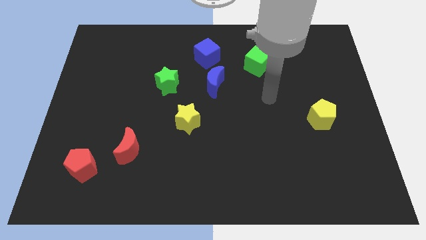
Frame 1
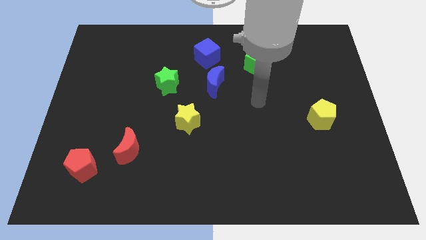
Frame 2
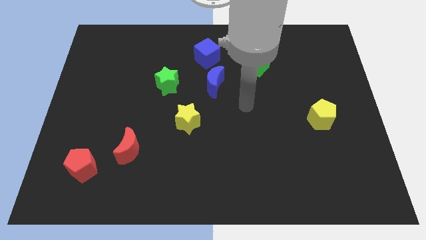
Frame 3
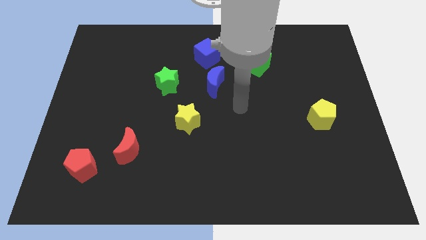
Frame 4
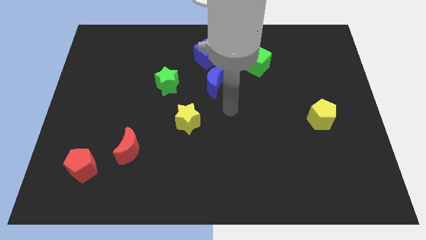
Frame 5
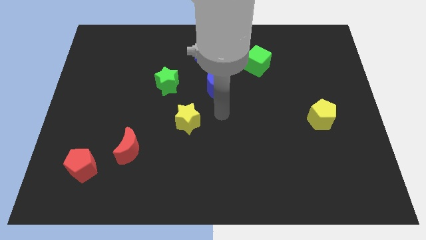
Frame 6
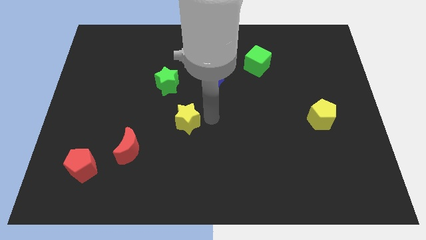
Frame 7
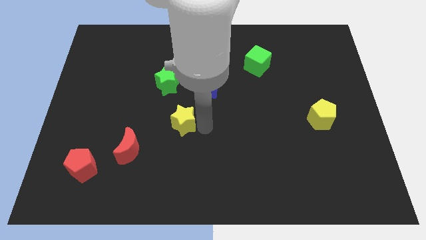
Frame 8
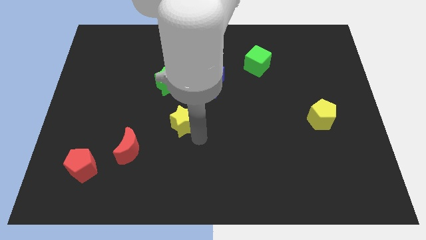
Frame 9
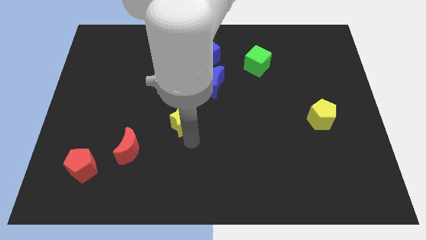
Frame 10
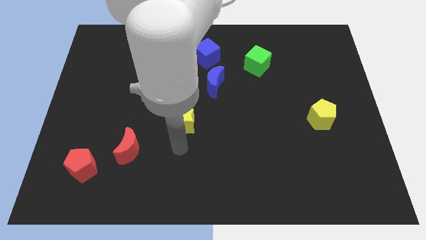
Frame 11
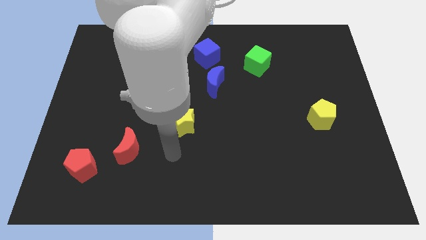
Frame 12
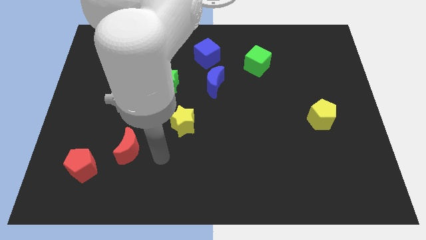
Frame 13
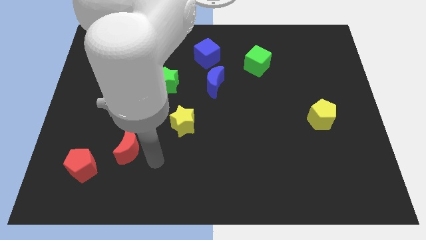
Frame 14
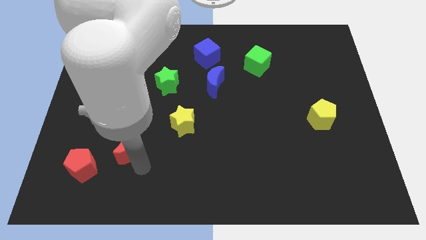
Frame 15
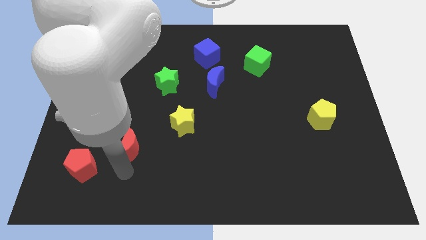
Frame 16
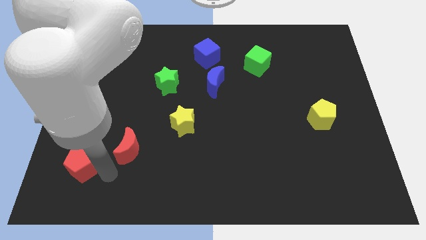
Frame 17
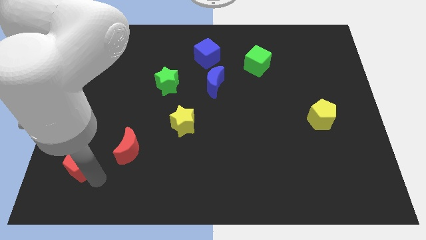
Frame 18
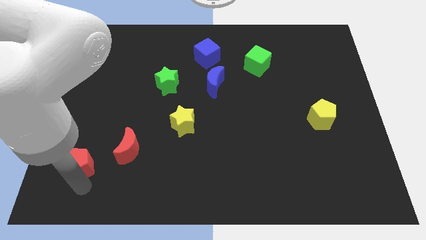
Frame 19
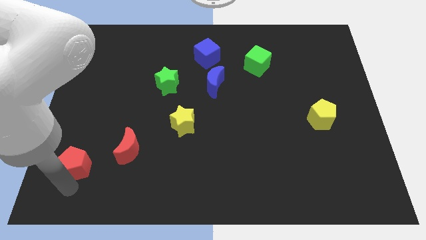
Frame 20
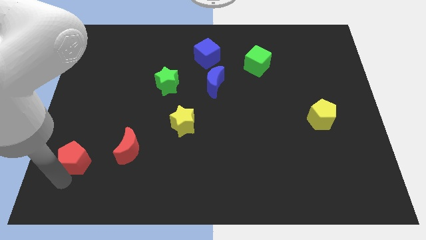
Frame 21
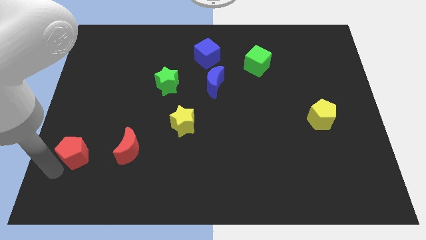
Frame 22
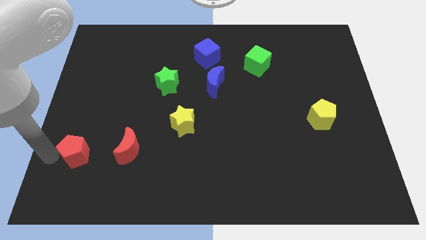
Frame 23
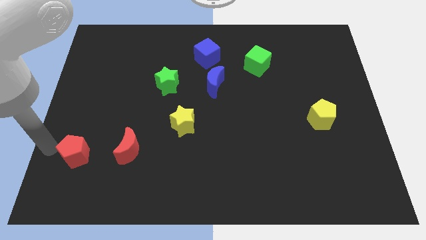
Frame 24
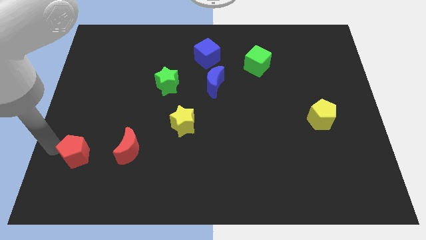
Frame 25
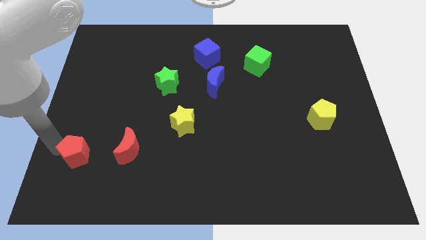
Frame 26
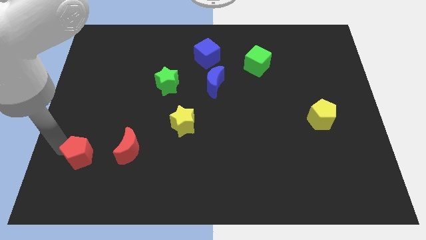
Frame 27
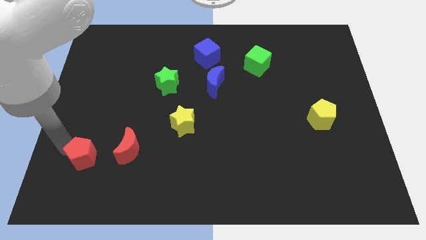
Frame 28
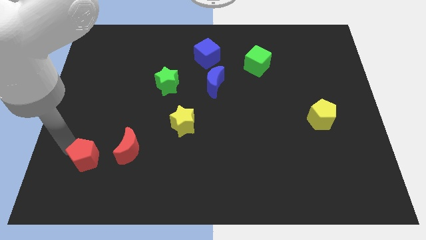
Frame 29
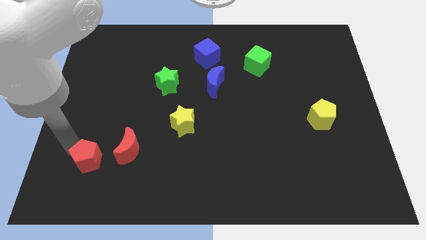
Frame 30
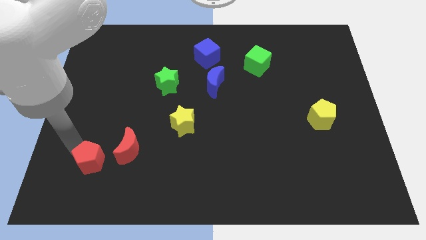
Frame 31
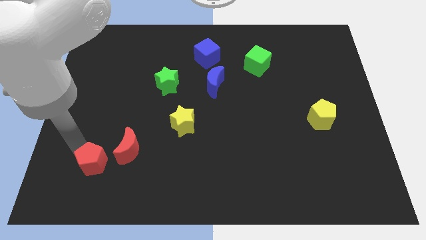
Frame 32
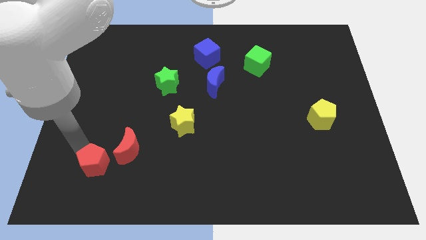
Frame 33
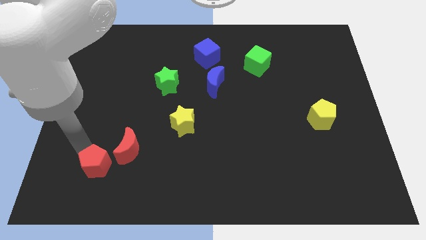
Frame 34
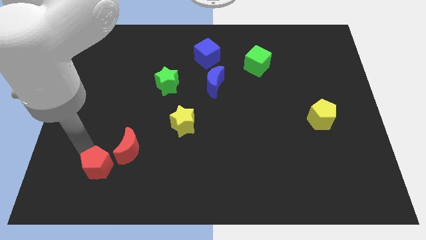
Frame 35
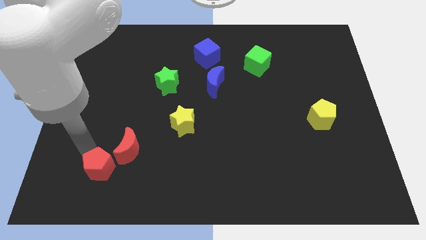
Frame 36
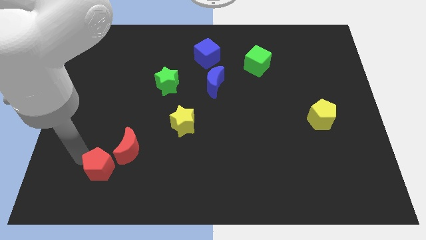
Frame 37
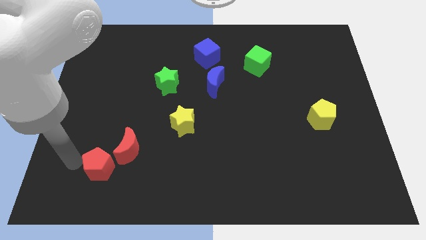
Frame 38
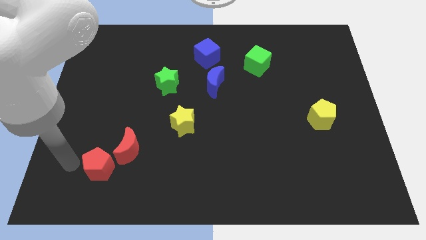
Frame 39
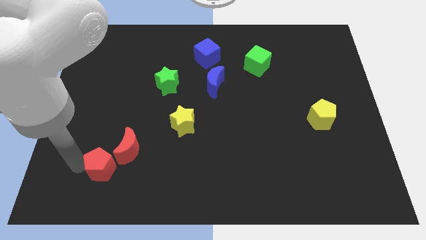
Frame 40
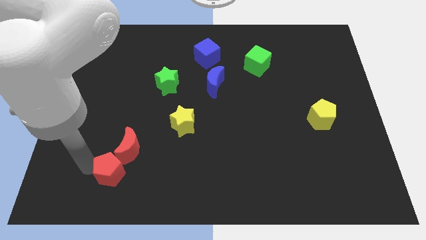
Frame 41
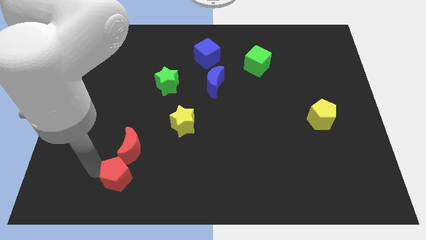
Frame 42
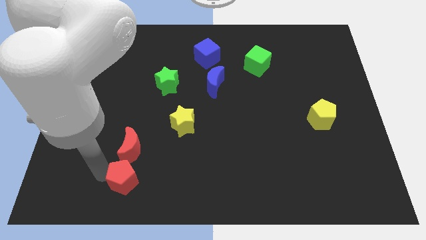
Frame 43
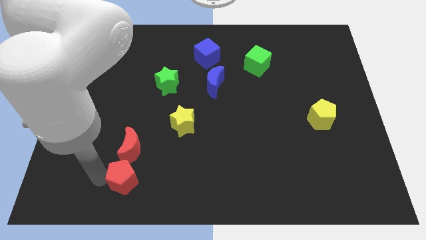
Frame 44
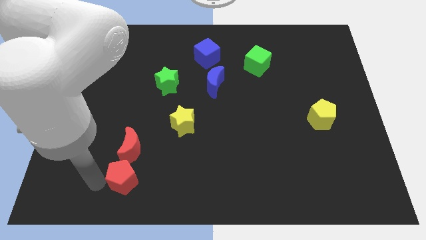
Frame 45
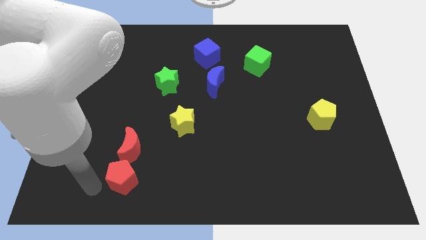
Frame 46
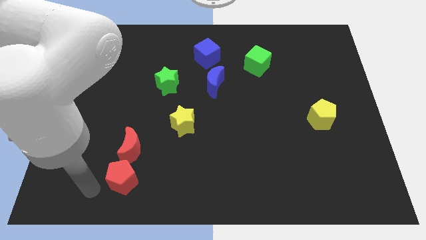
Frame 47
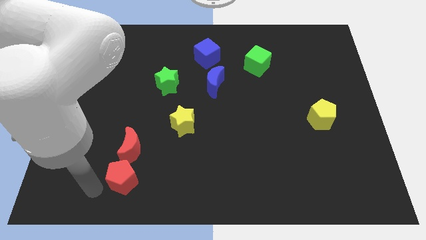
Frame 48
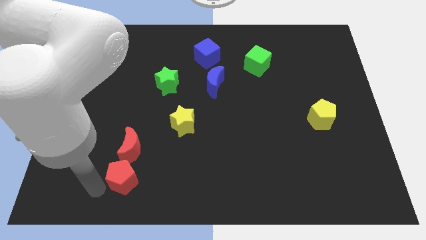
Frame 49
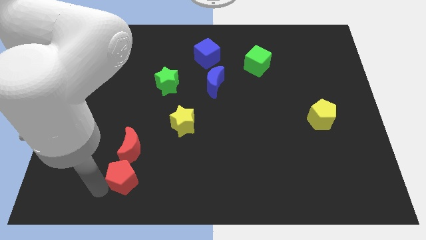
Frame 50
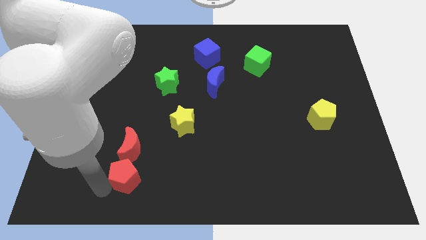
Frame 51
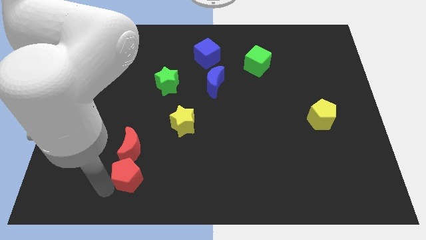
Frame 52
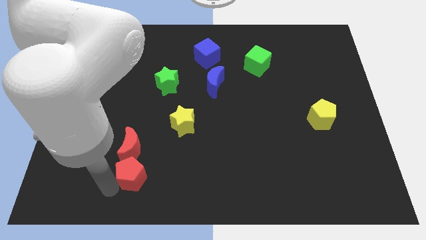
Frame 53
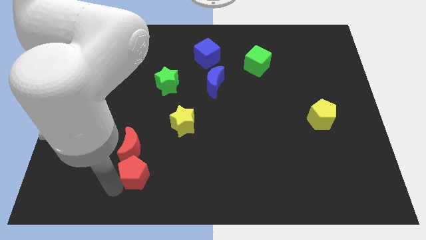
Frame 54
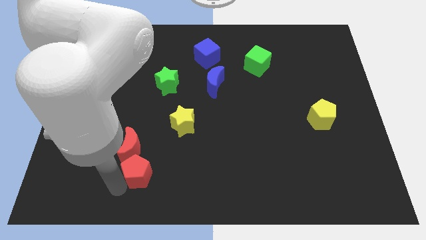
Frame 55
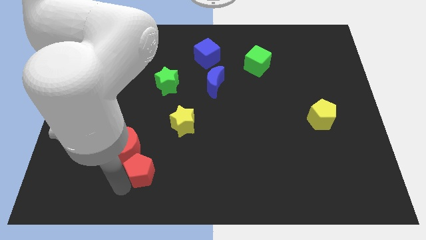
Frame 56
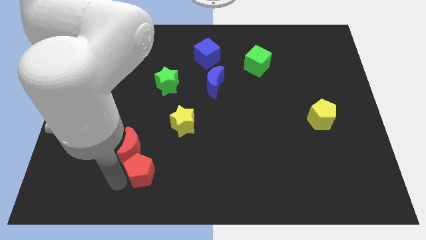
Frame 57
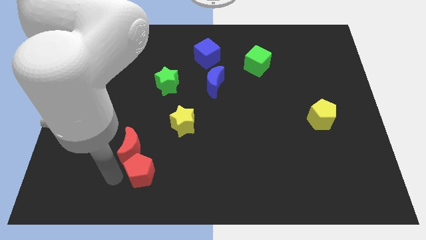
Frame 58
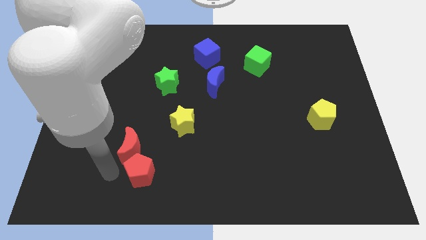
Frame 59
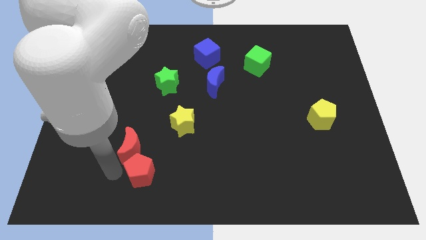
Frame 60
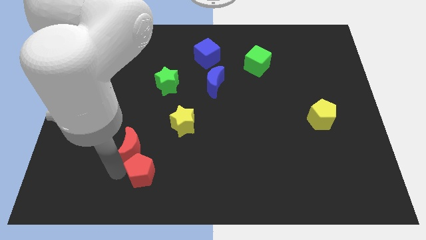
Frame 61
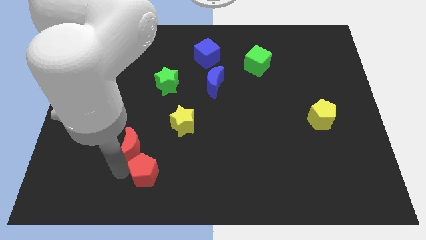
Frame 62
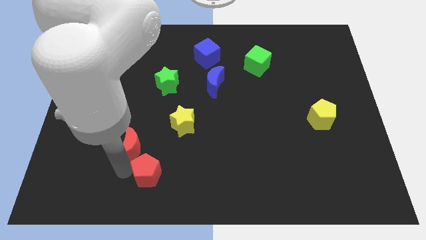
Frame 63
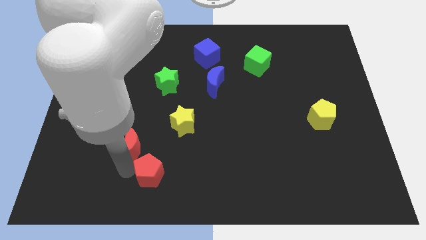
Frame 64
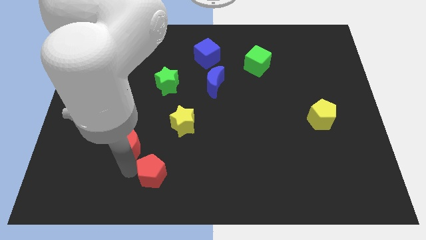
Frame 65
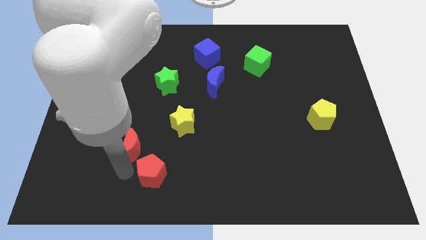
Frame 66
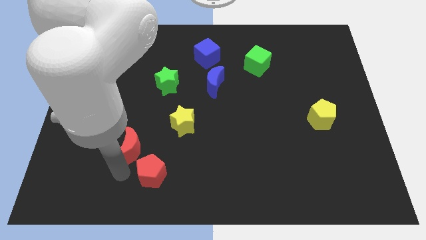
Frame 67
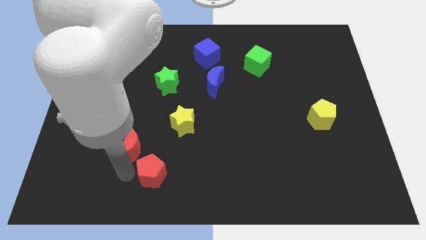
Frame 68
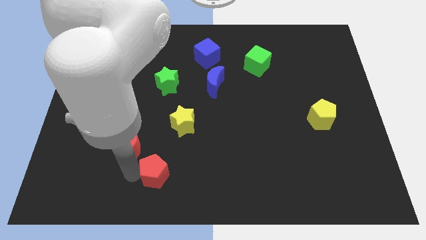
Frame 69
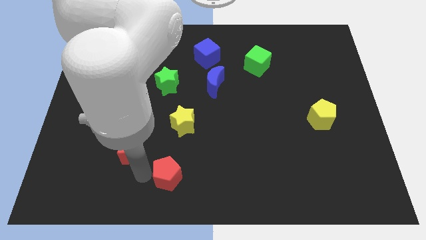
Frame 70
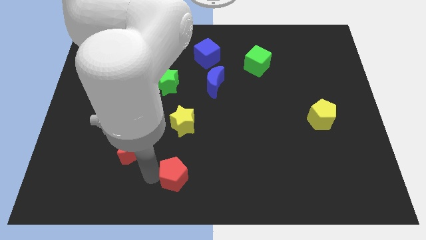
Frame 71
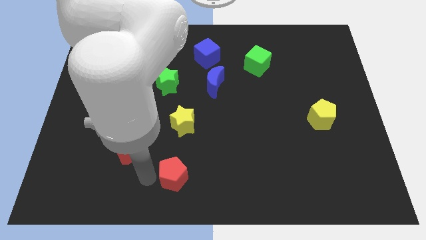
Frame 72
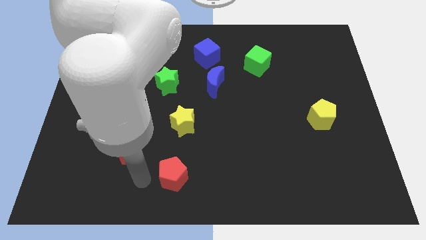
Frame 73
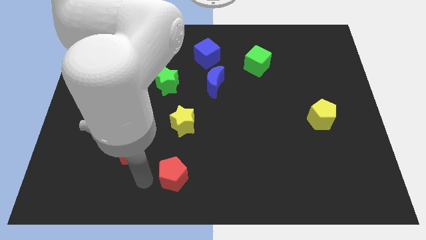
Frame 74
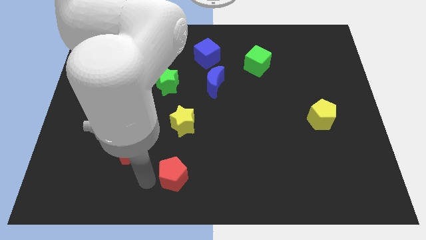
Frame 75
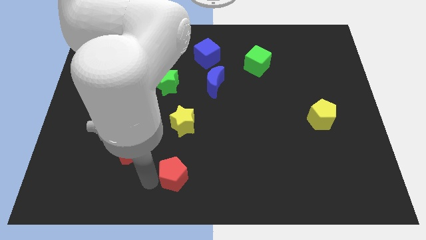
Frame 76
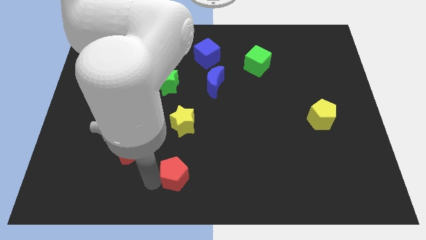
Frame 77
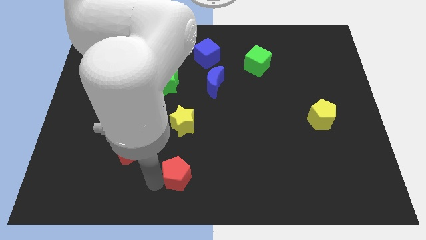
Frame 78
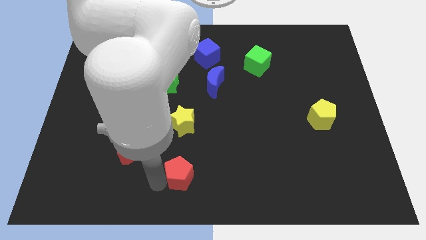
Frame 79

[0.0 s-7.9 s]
slide the red pentagon to the right
